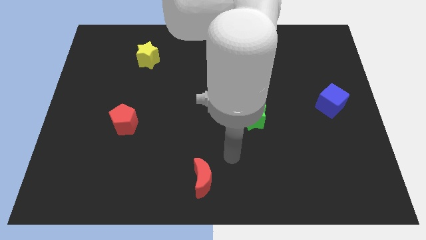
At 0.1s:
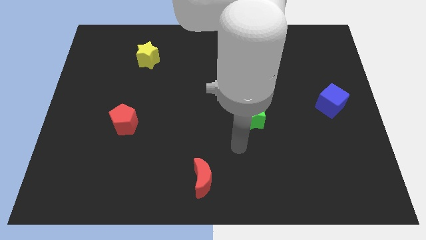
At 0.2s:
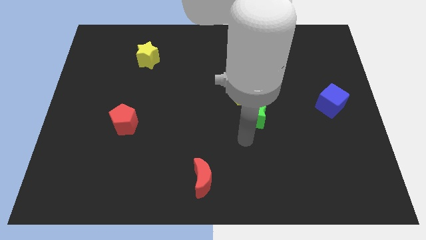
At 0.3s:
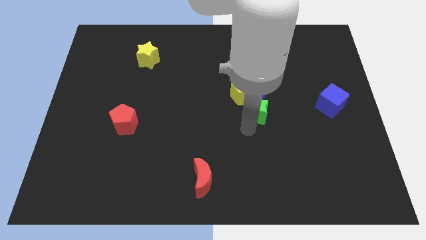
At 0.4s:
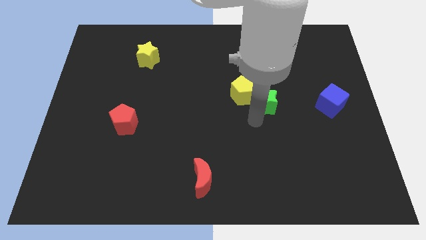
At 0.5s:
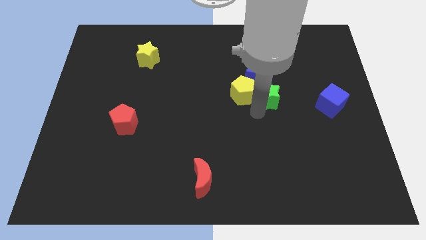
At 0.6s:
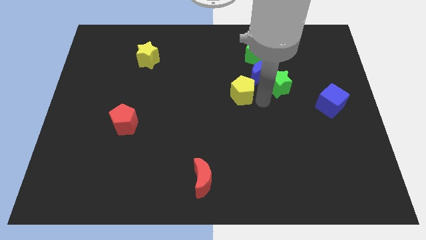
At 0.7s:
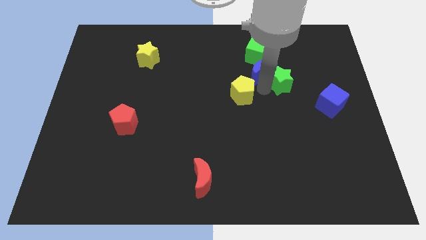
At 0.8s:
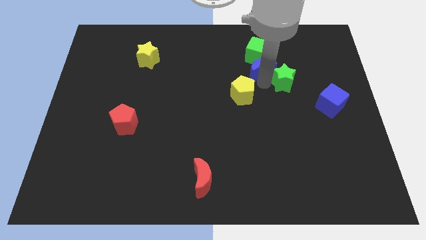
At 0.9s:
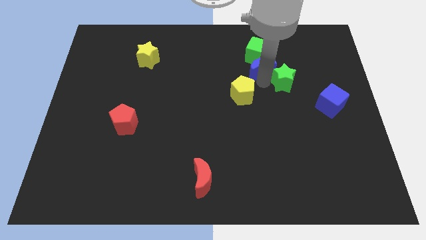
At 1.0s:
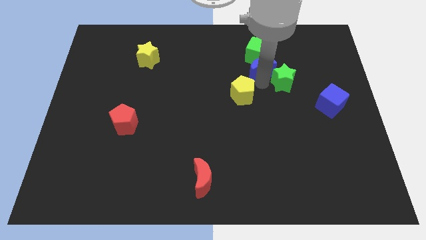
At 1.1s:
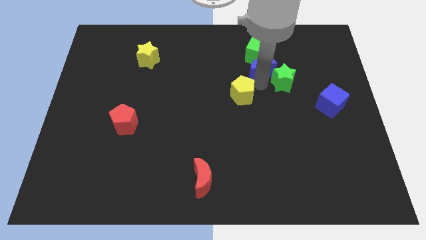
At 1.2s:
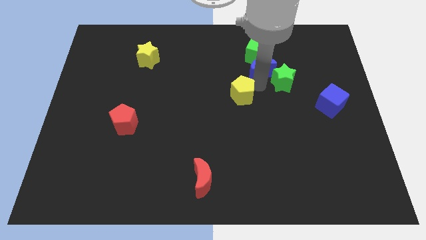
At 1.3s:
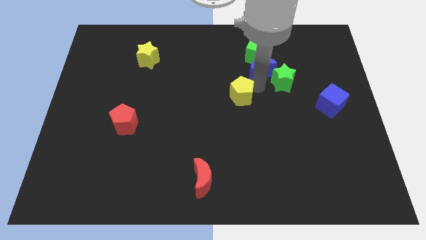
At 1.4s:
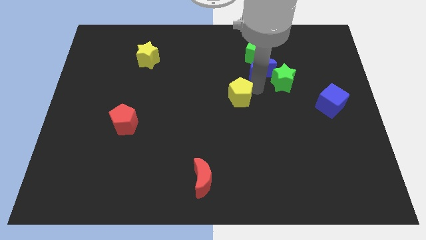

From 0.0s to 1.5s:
pull the yellow pentagon apart from the blue moon and green star

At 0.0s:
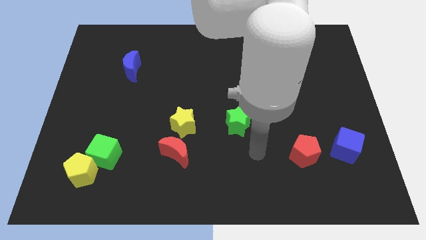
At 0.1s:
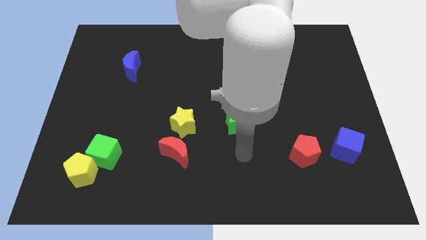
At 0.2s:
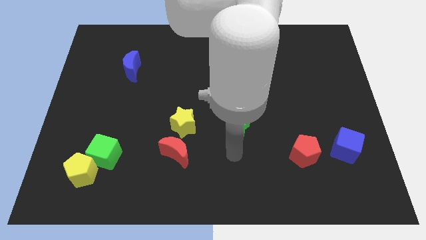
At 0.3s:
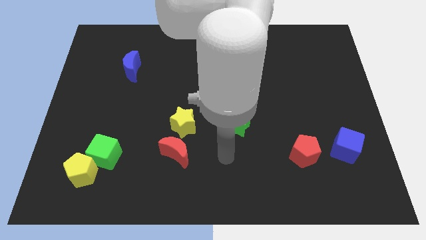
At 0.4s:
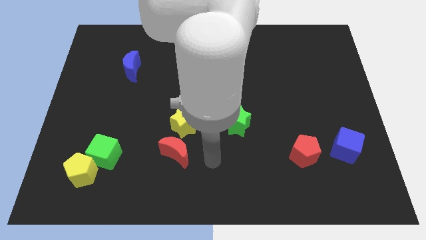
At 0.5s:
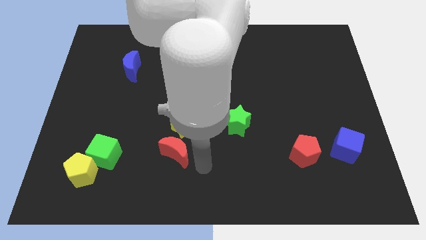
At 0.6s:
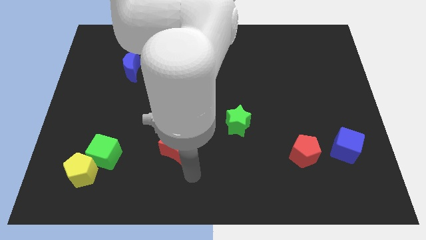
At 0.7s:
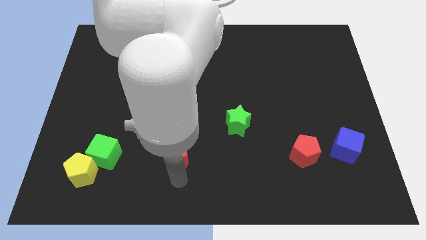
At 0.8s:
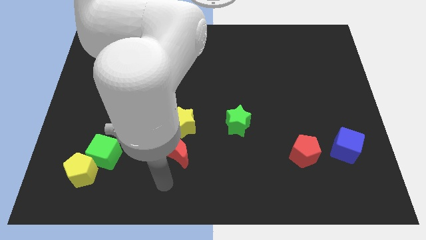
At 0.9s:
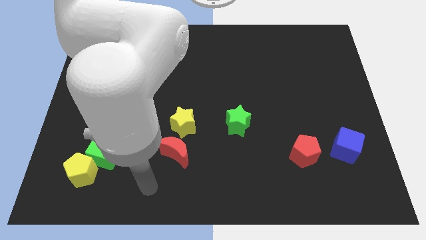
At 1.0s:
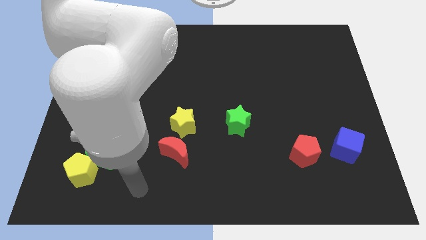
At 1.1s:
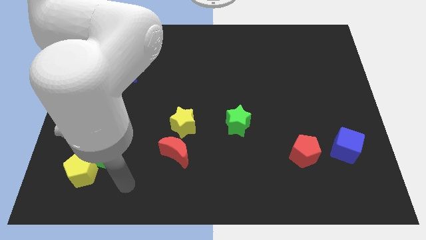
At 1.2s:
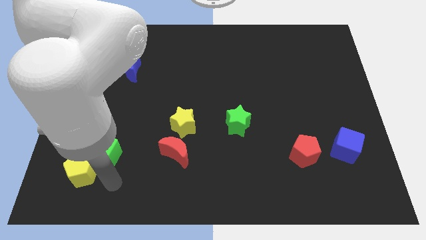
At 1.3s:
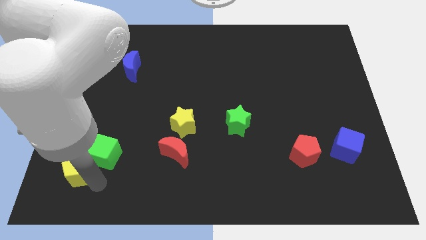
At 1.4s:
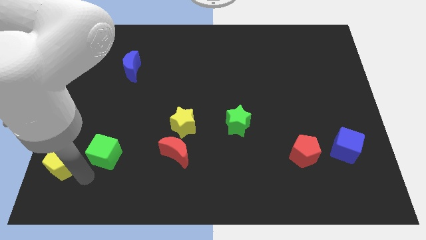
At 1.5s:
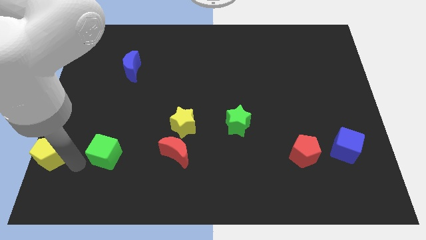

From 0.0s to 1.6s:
separate the green cube from the yellow pentagon

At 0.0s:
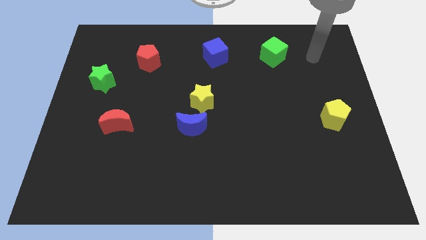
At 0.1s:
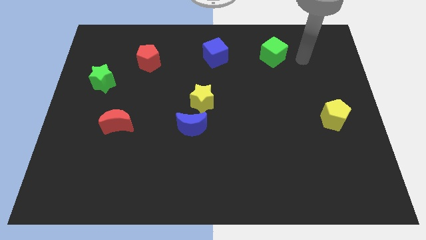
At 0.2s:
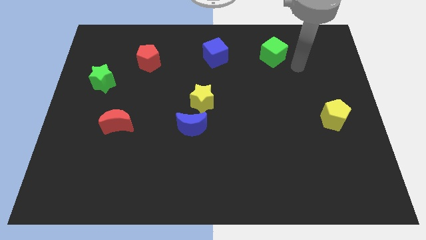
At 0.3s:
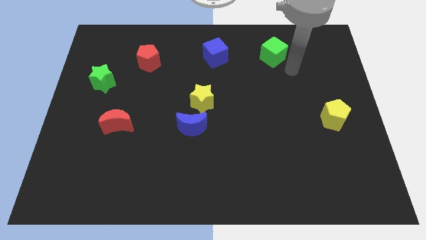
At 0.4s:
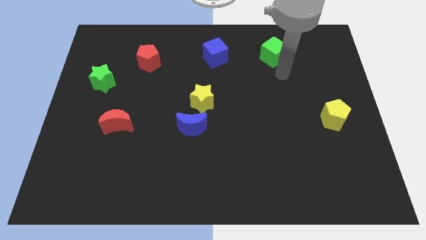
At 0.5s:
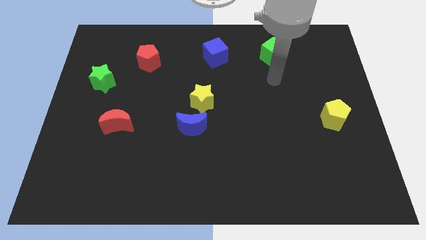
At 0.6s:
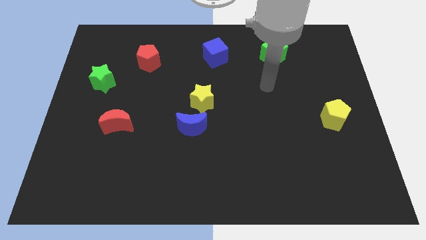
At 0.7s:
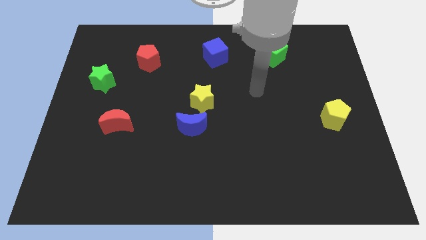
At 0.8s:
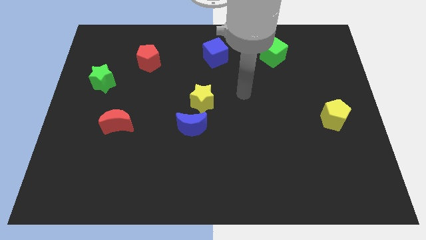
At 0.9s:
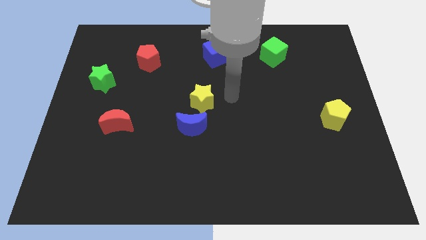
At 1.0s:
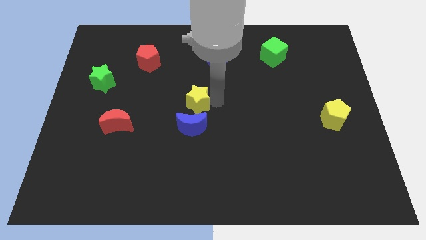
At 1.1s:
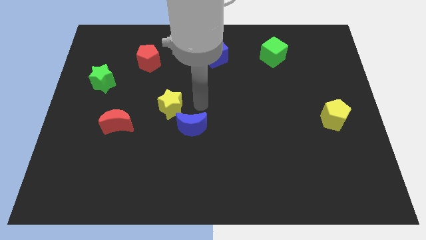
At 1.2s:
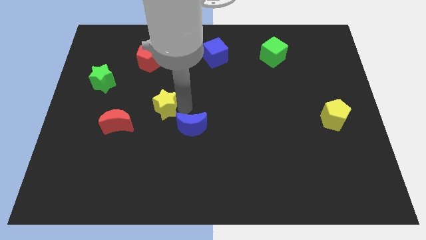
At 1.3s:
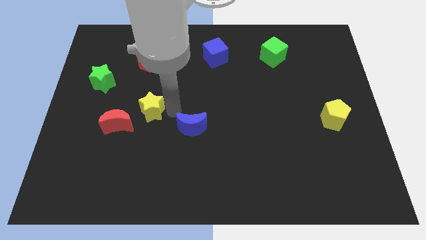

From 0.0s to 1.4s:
pull the blue moon apart from the yellow star

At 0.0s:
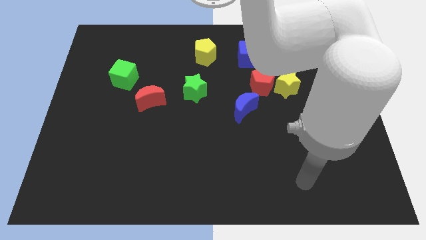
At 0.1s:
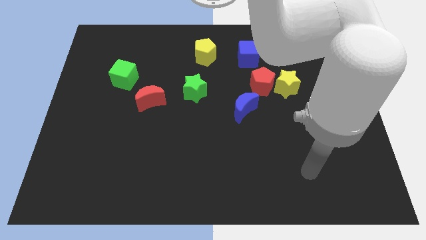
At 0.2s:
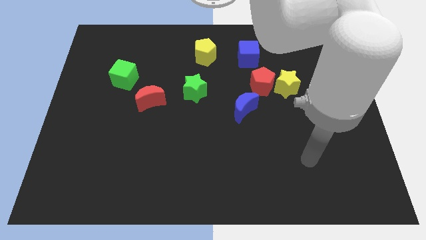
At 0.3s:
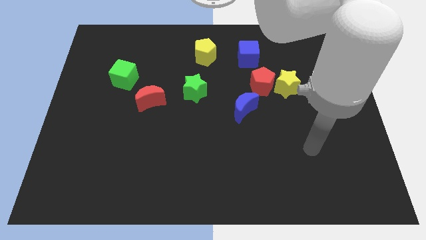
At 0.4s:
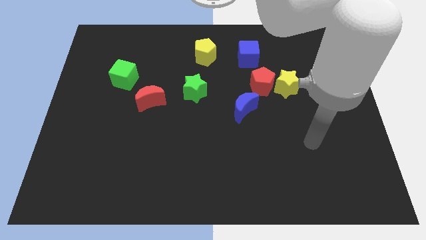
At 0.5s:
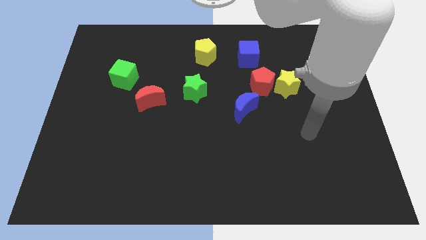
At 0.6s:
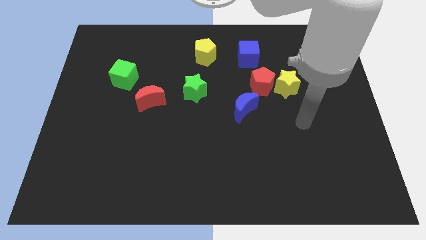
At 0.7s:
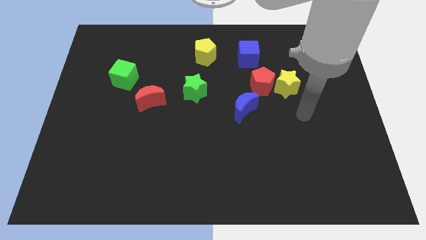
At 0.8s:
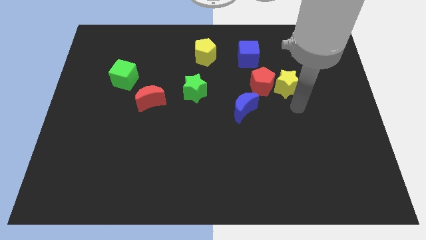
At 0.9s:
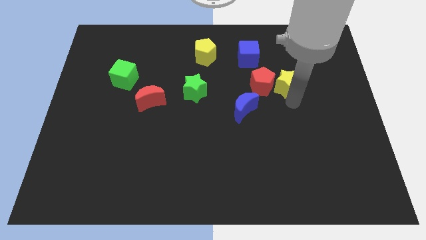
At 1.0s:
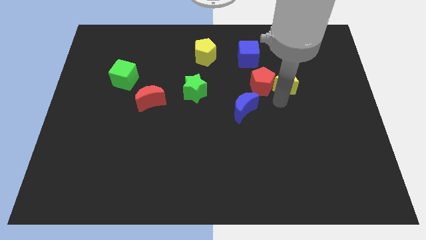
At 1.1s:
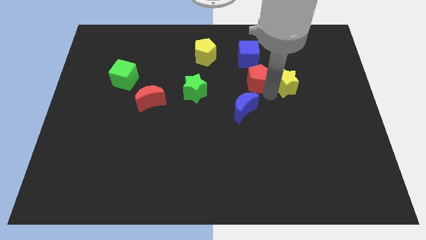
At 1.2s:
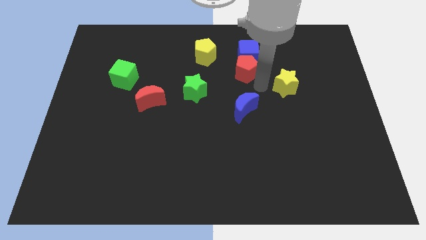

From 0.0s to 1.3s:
pull the yellow star apart from the red pentagon

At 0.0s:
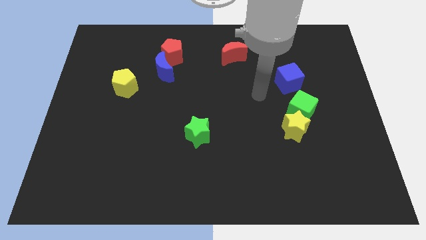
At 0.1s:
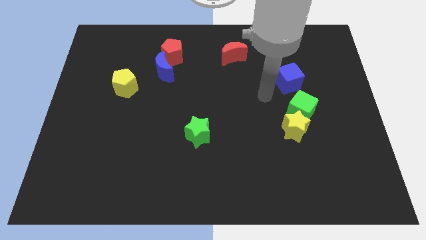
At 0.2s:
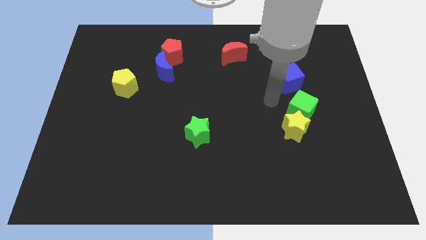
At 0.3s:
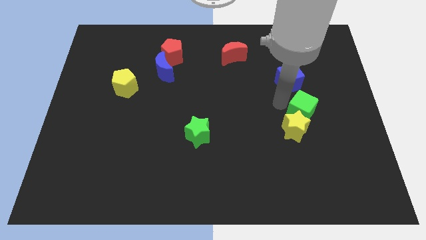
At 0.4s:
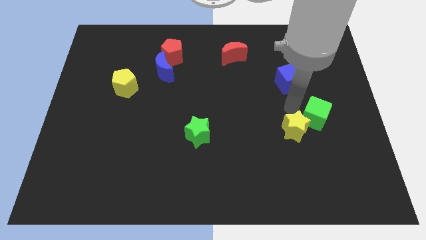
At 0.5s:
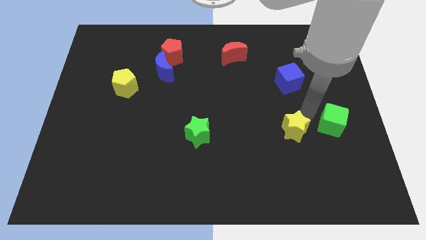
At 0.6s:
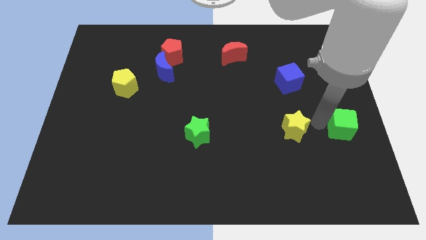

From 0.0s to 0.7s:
move the yellow star away from the green cube

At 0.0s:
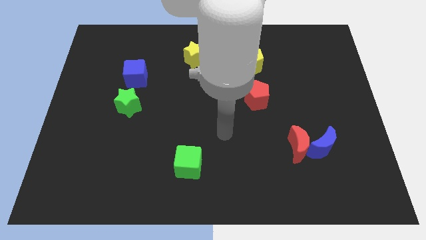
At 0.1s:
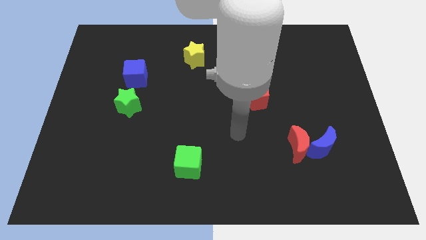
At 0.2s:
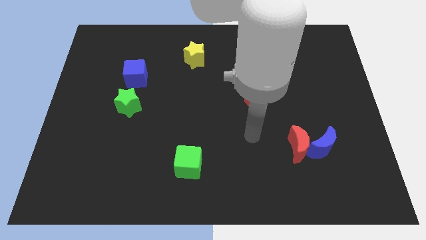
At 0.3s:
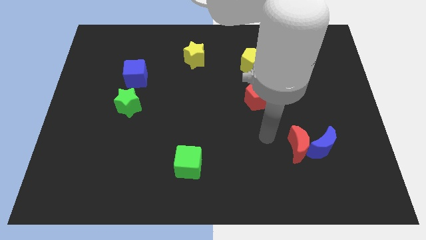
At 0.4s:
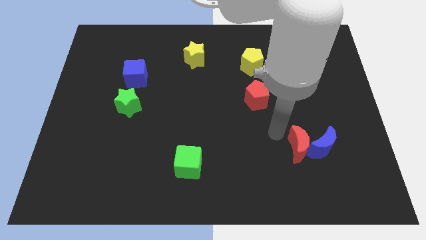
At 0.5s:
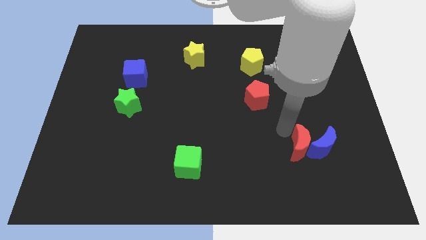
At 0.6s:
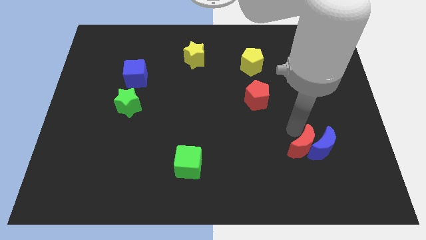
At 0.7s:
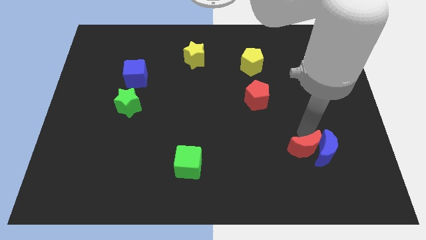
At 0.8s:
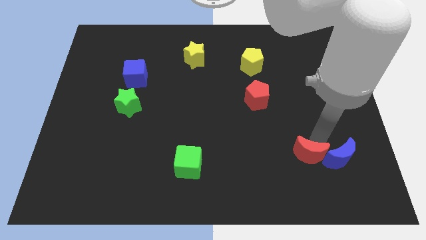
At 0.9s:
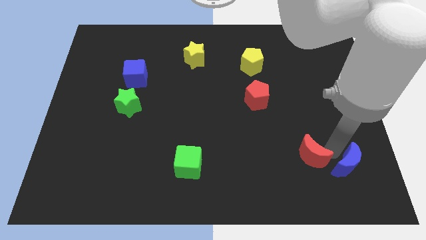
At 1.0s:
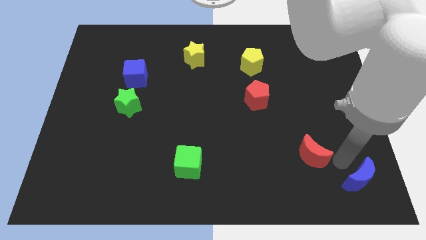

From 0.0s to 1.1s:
pull the red moon apart from the blue moon

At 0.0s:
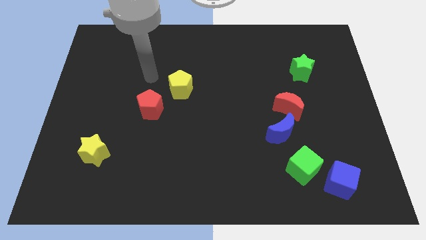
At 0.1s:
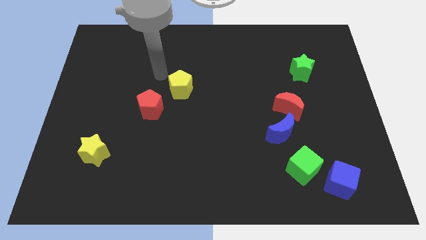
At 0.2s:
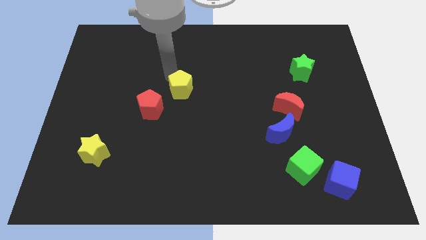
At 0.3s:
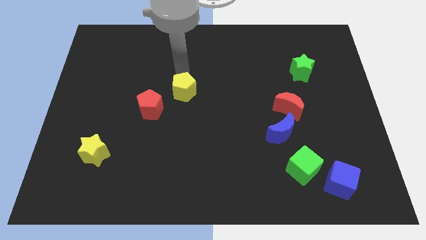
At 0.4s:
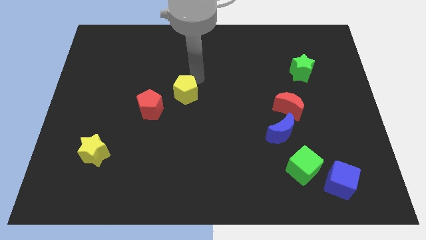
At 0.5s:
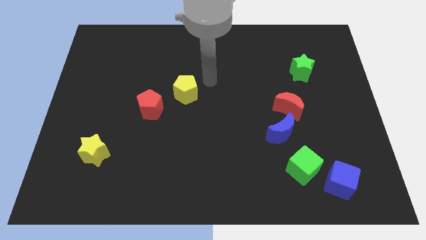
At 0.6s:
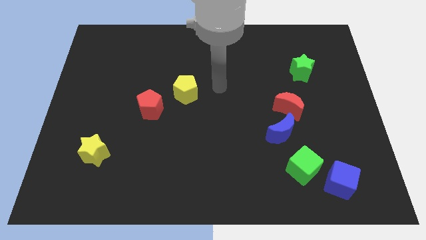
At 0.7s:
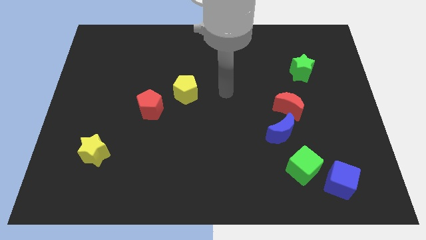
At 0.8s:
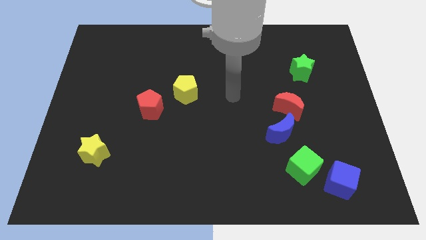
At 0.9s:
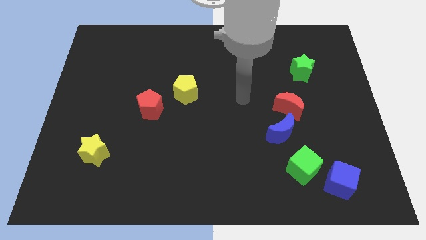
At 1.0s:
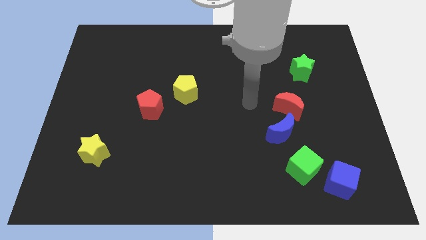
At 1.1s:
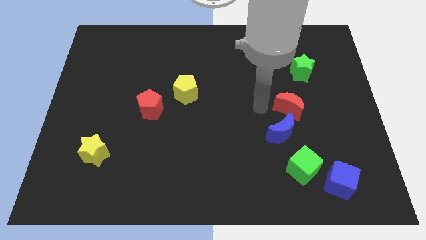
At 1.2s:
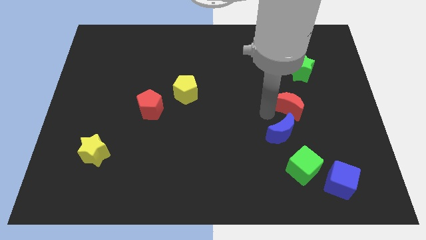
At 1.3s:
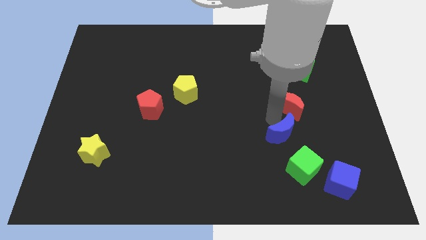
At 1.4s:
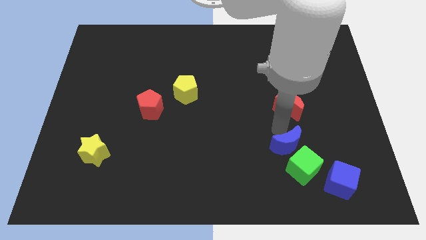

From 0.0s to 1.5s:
move the red moon away from the blue moon

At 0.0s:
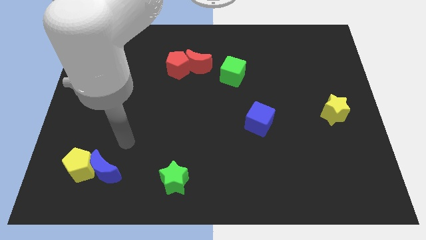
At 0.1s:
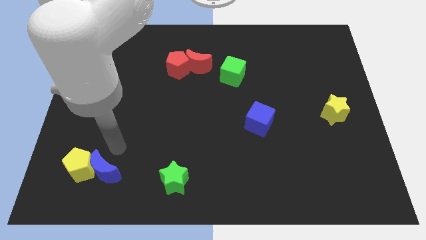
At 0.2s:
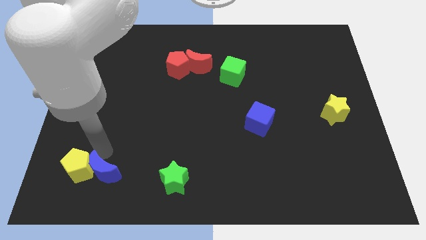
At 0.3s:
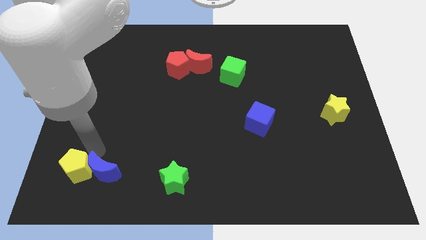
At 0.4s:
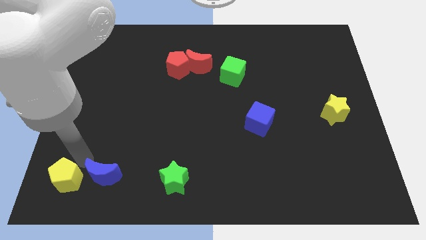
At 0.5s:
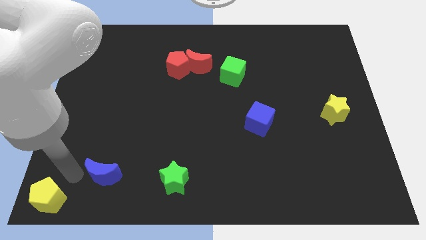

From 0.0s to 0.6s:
pull the blue moon apart from the yellow pentagon
